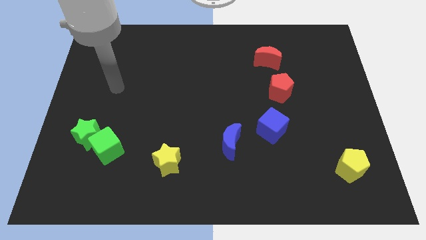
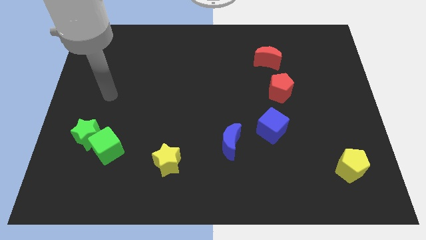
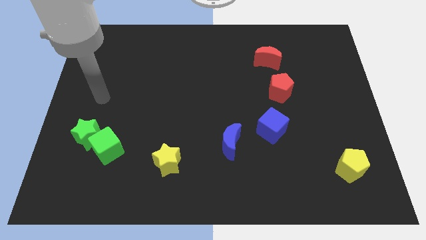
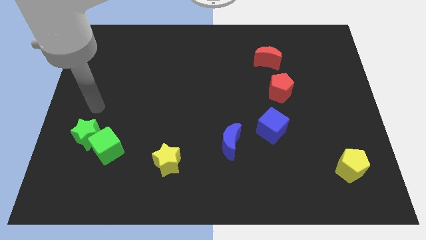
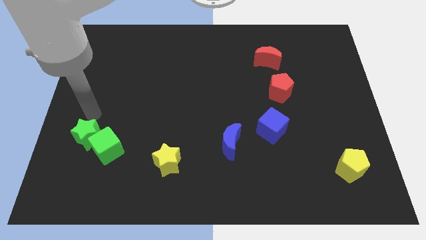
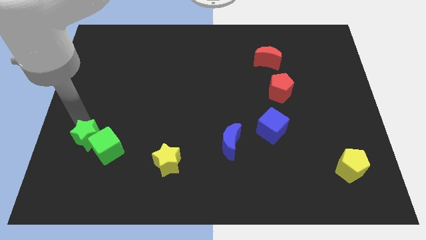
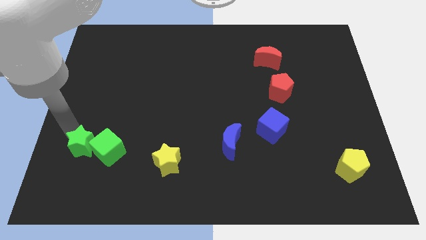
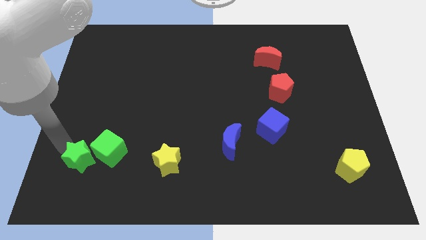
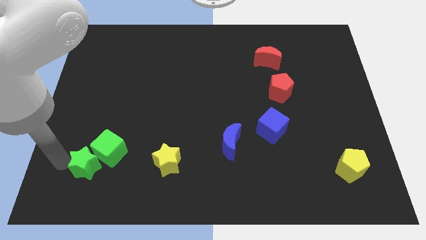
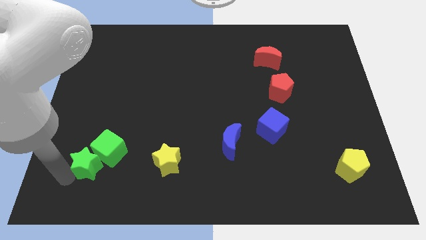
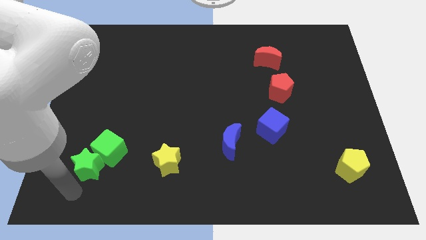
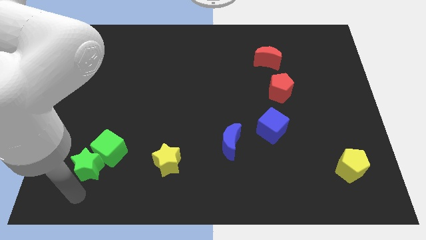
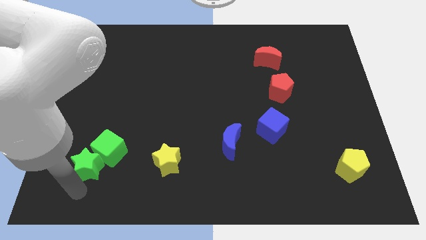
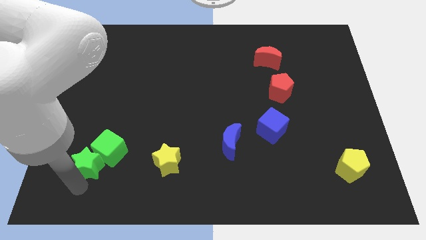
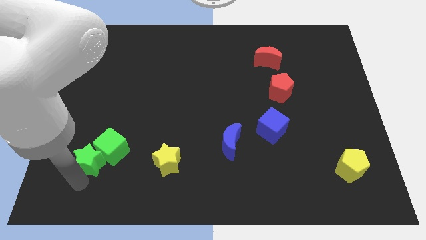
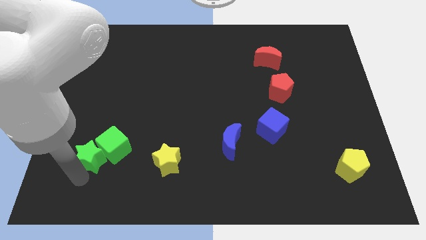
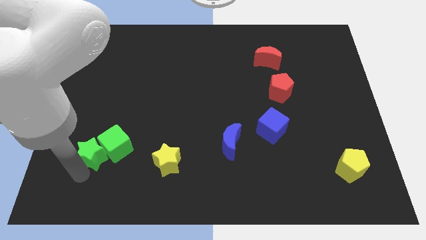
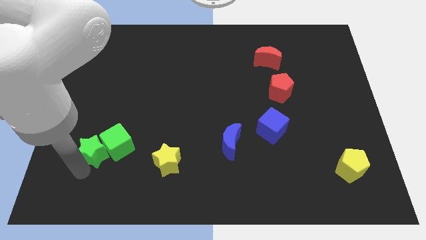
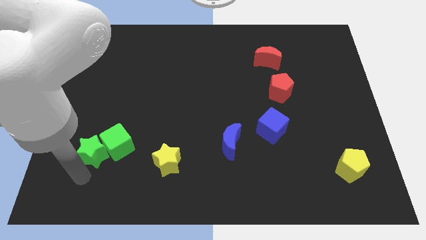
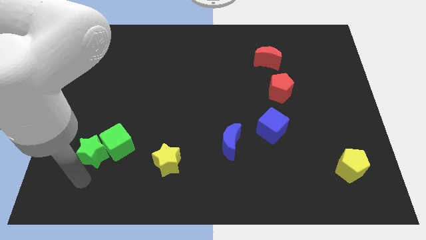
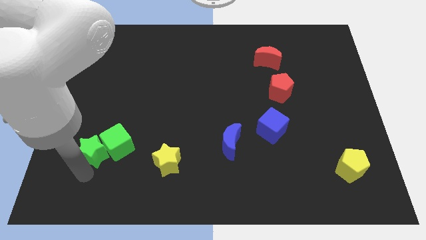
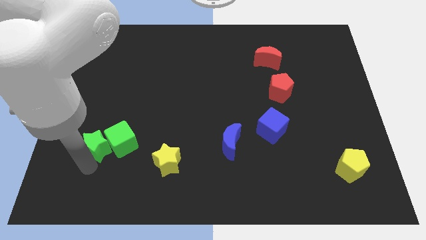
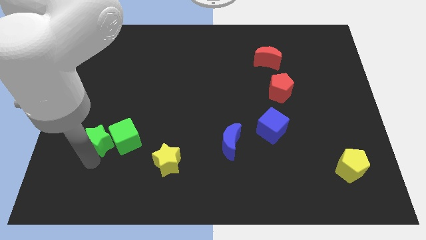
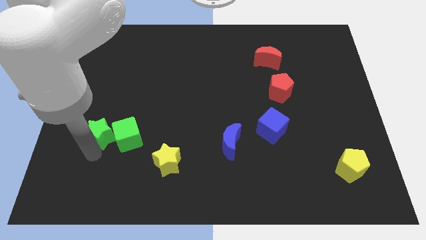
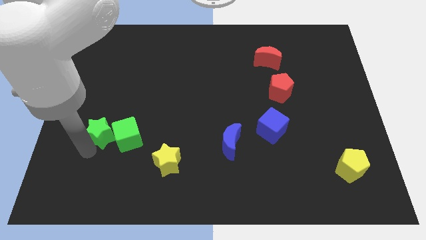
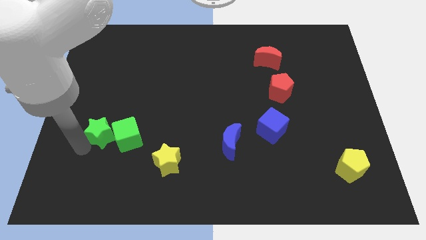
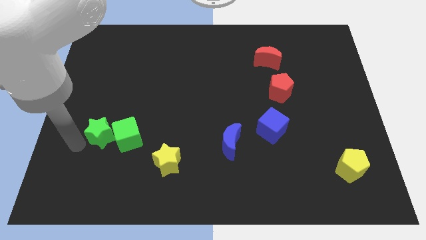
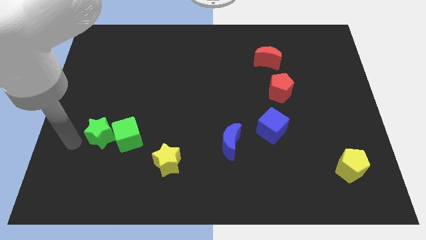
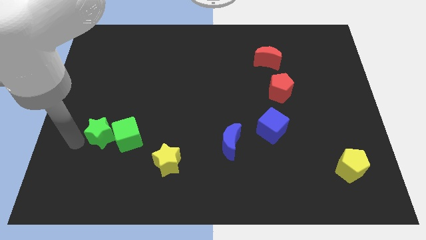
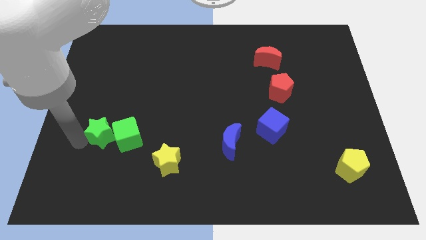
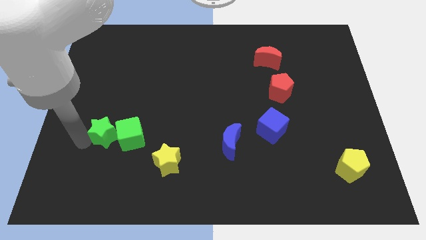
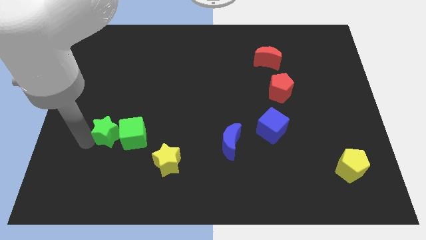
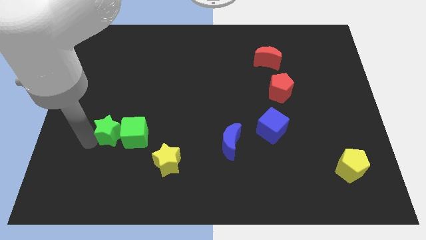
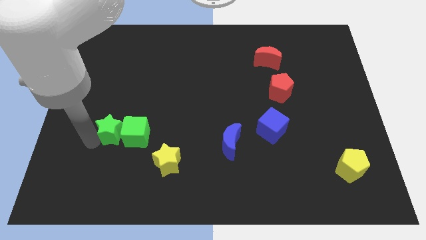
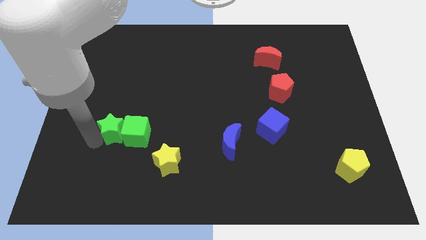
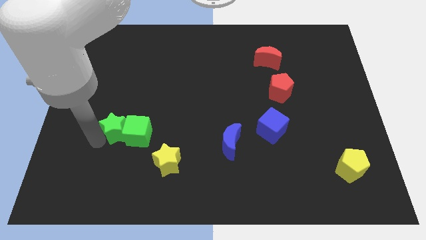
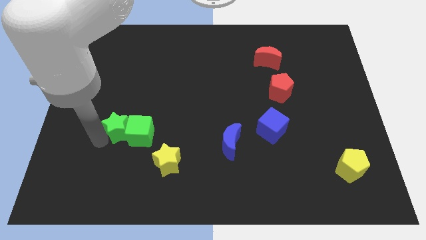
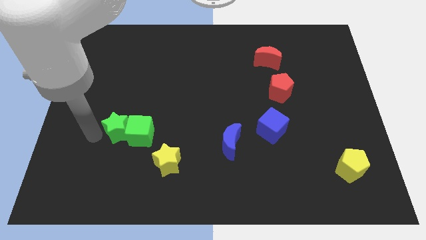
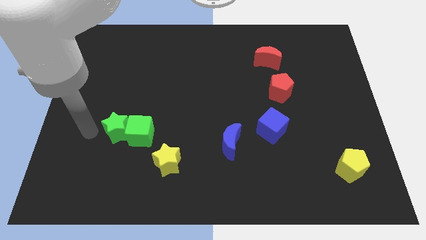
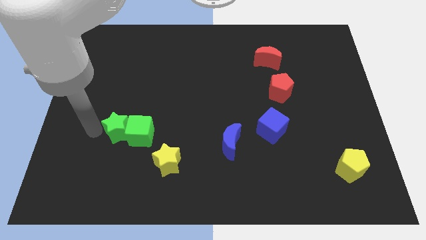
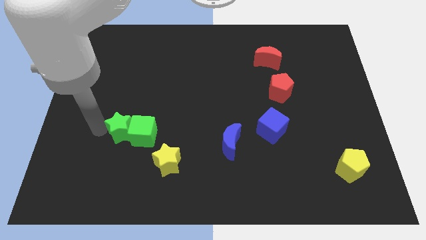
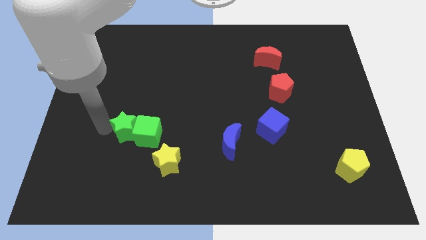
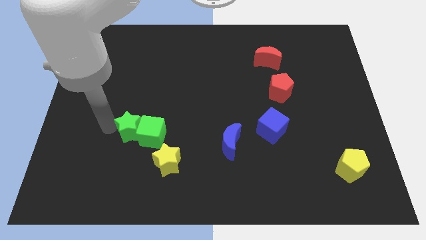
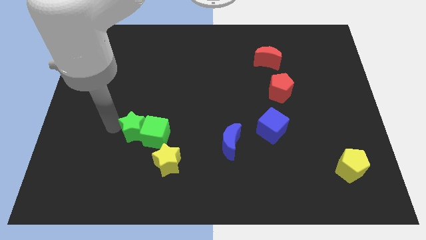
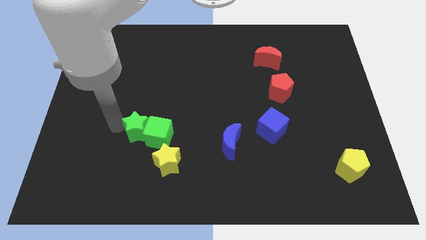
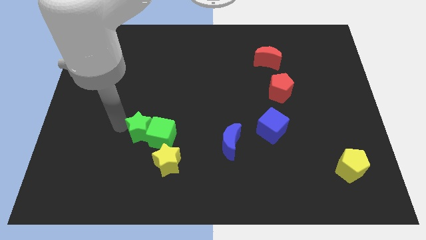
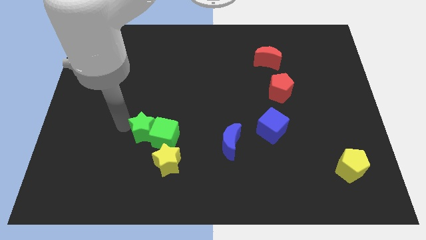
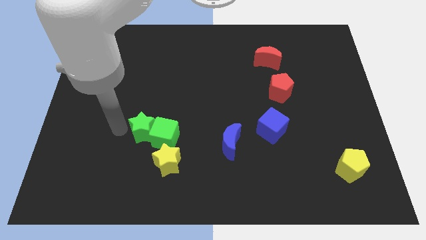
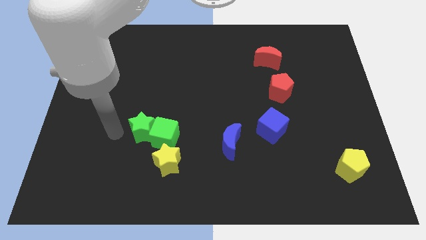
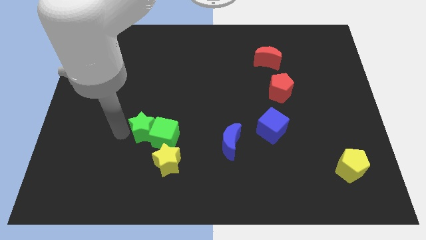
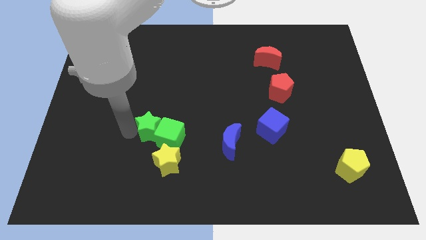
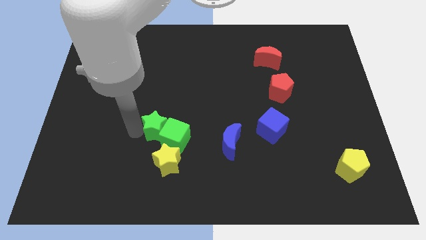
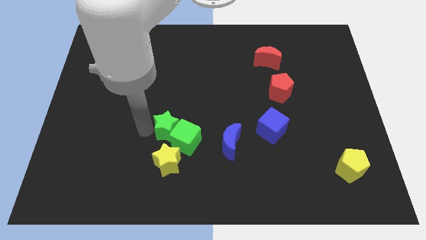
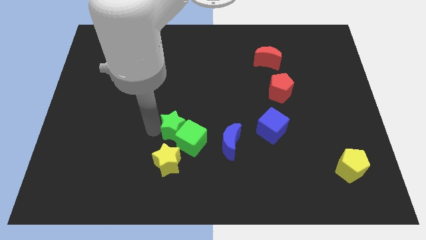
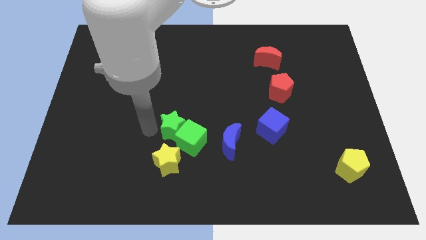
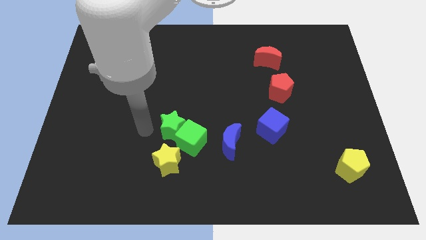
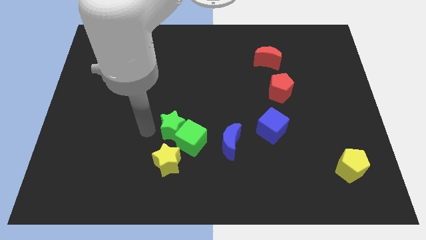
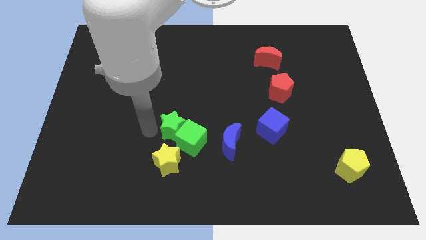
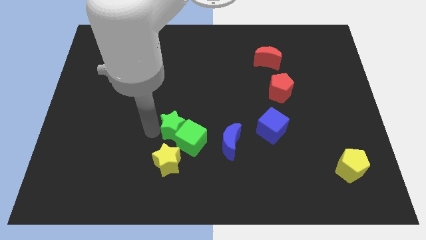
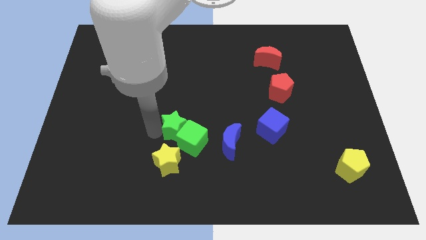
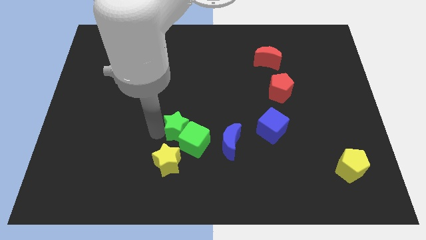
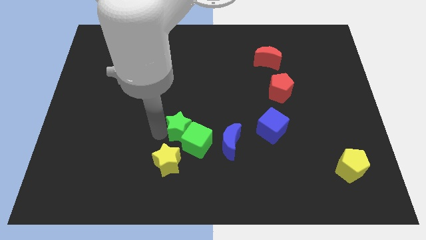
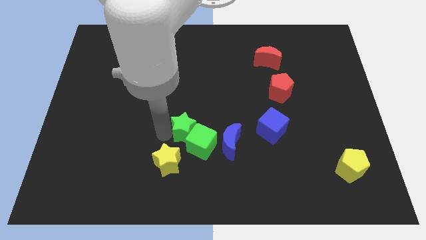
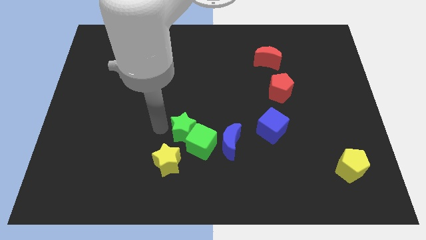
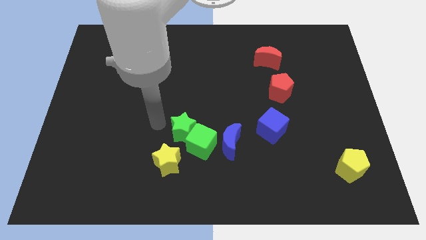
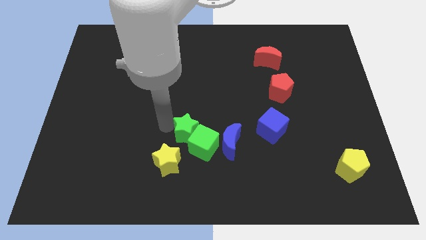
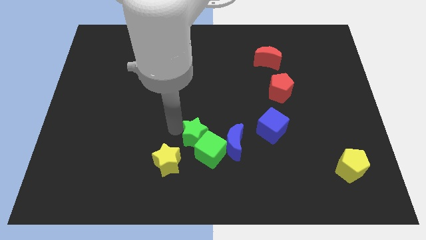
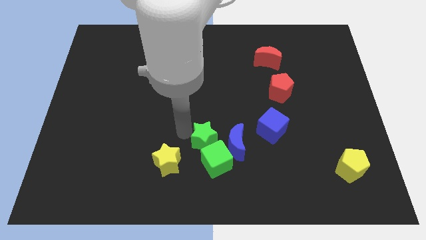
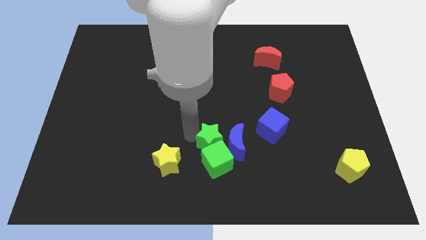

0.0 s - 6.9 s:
slide the green star next to the blue moon
